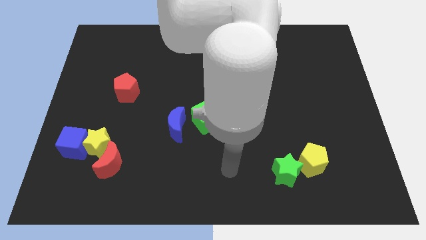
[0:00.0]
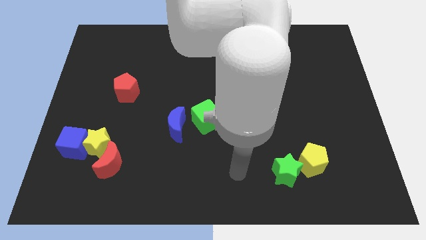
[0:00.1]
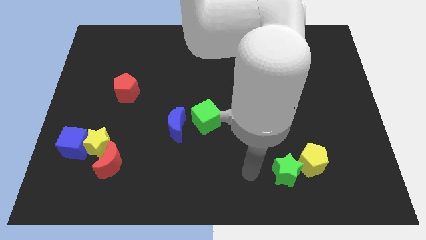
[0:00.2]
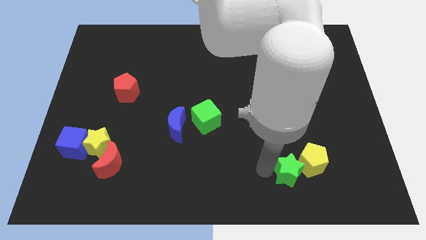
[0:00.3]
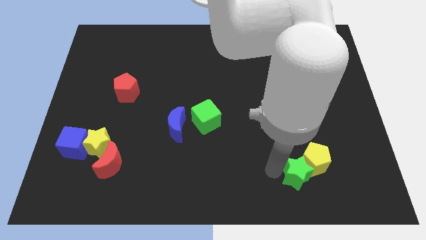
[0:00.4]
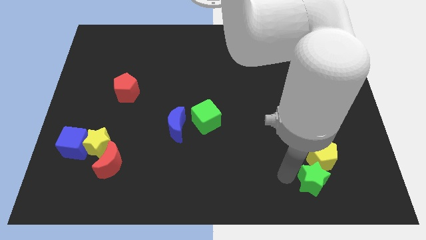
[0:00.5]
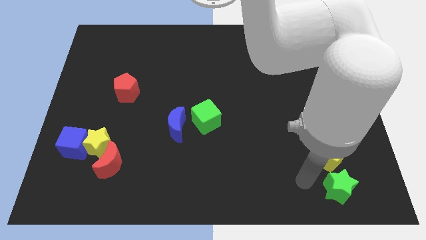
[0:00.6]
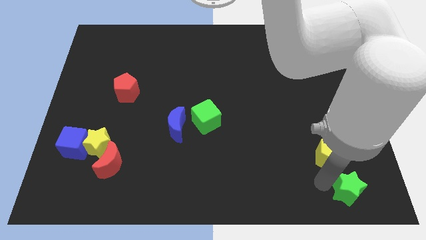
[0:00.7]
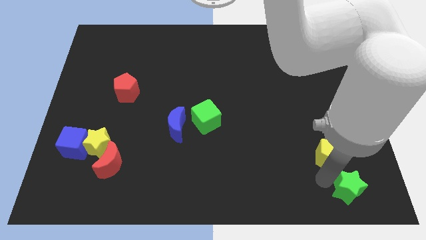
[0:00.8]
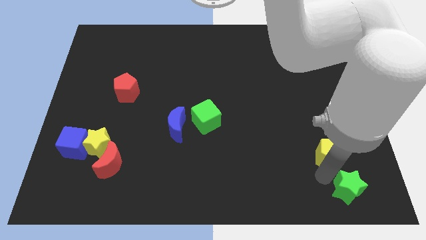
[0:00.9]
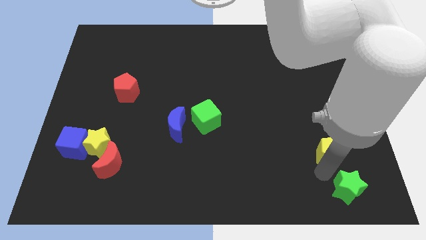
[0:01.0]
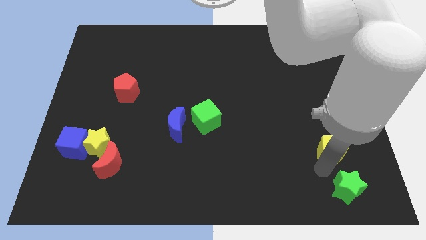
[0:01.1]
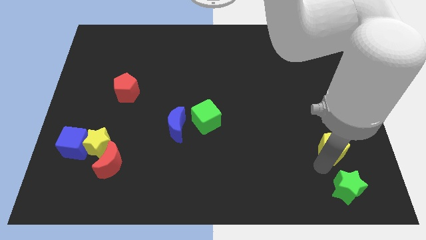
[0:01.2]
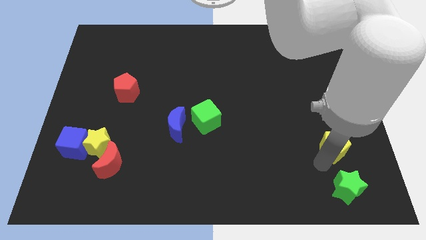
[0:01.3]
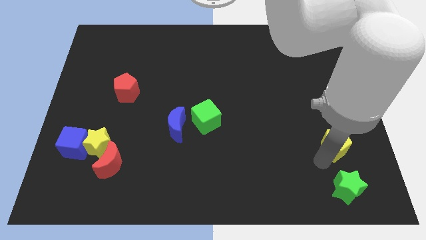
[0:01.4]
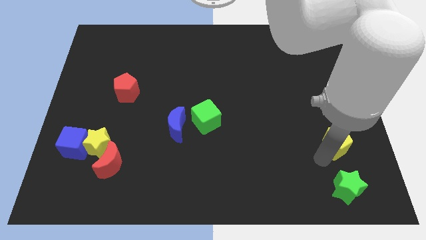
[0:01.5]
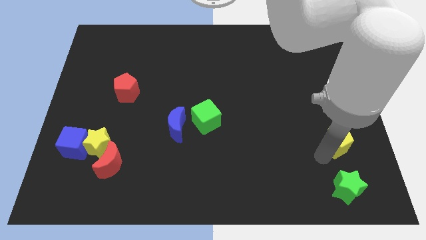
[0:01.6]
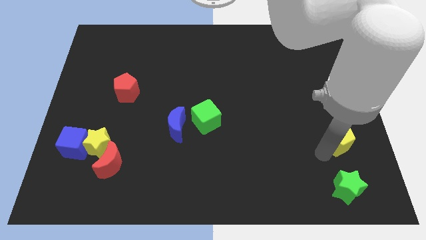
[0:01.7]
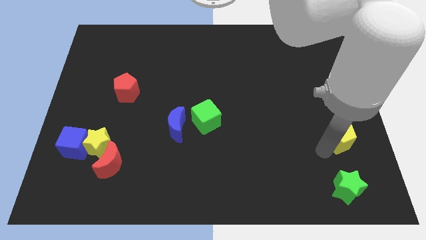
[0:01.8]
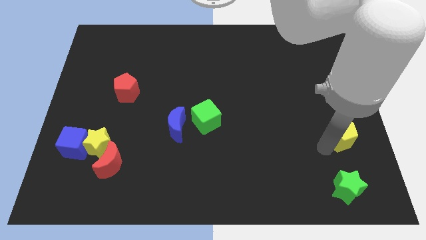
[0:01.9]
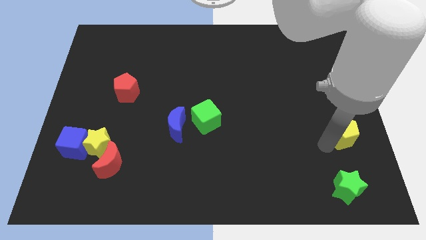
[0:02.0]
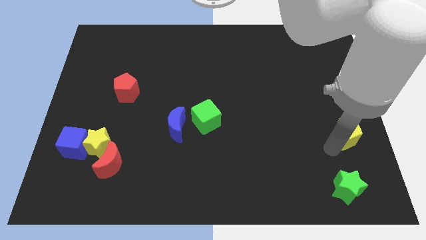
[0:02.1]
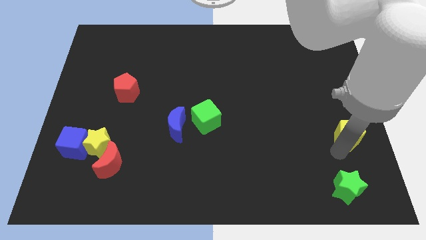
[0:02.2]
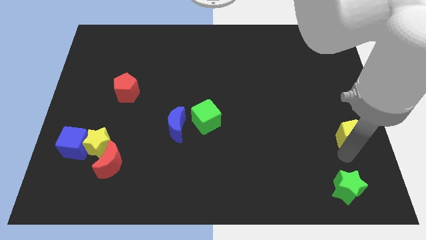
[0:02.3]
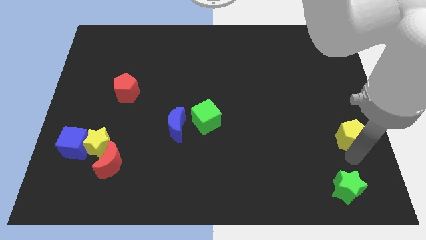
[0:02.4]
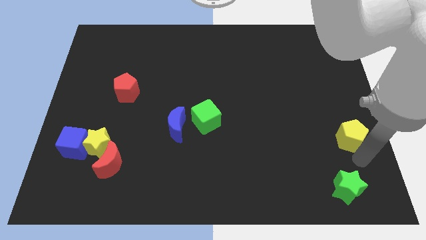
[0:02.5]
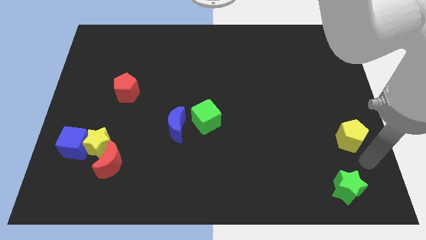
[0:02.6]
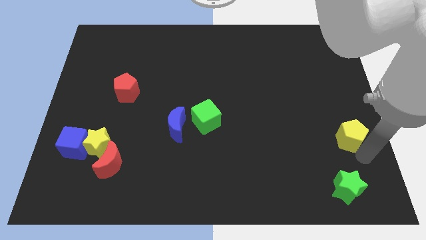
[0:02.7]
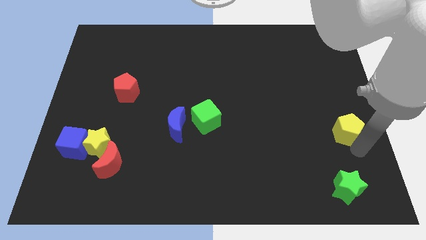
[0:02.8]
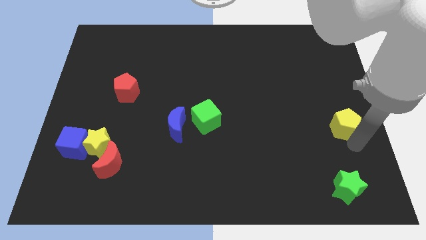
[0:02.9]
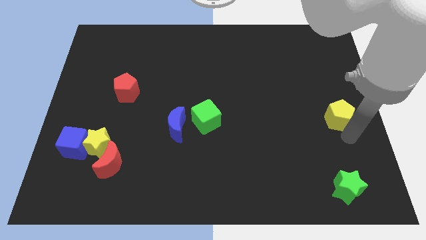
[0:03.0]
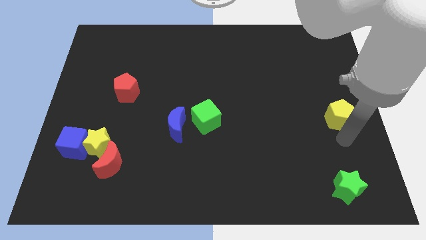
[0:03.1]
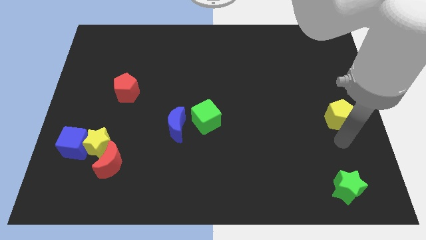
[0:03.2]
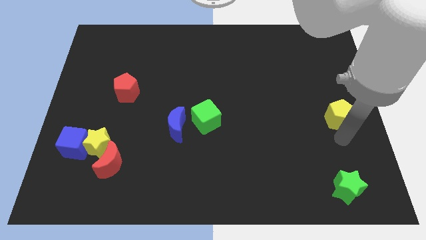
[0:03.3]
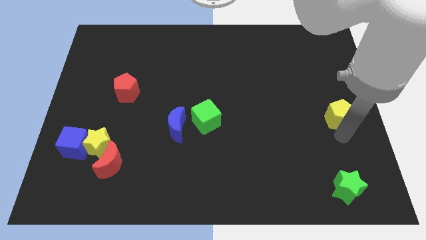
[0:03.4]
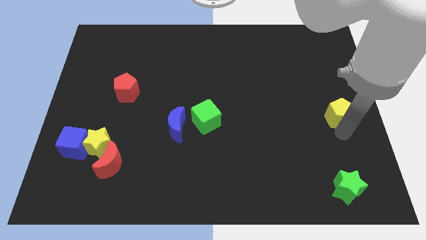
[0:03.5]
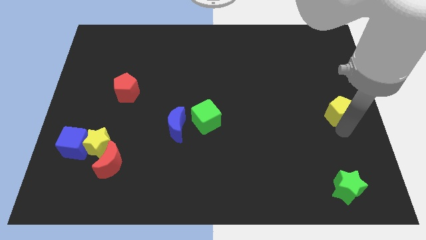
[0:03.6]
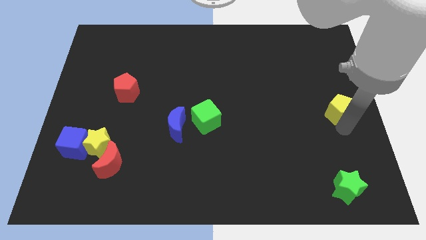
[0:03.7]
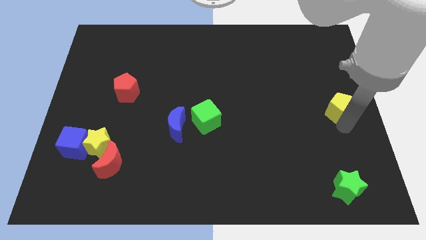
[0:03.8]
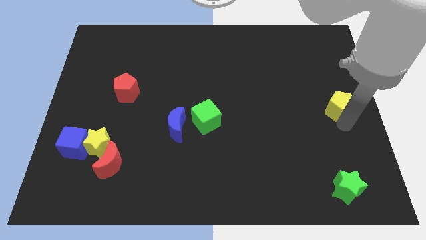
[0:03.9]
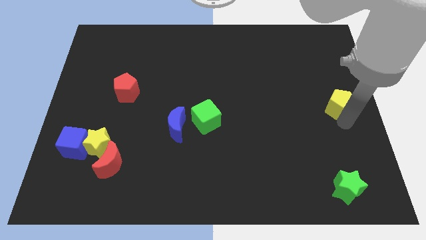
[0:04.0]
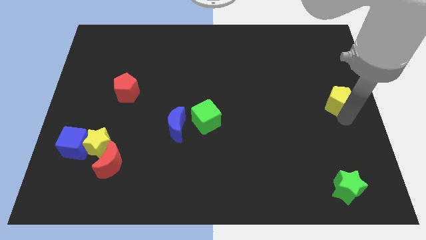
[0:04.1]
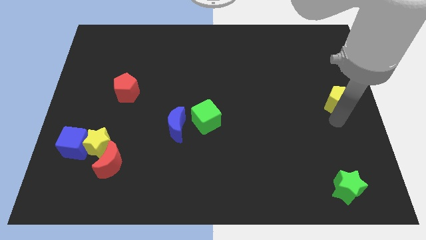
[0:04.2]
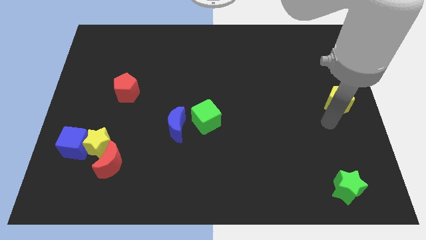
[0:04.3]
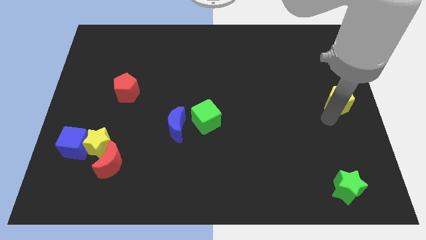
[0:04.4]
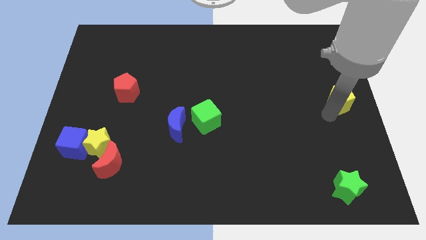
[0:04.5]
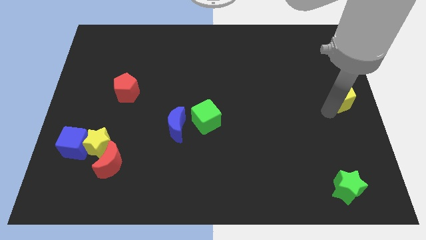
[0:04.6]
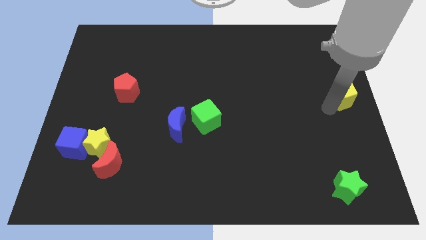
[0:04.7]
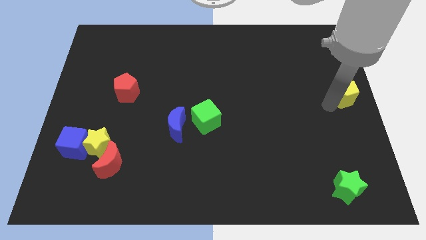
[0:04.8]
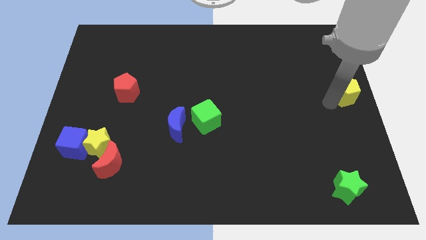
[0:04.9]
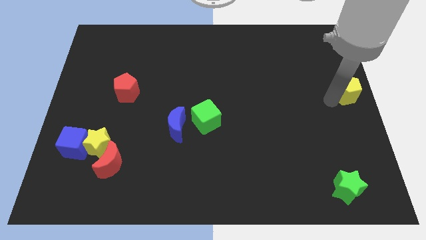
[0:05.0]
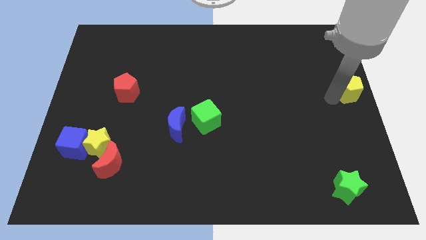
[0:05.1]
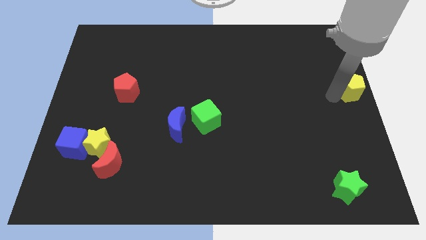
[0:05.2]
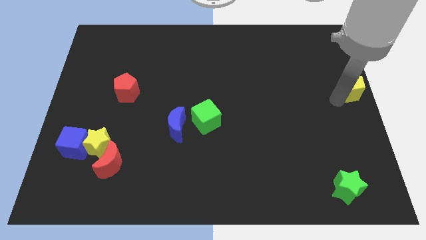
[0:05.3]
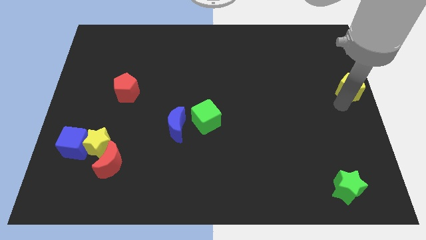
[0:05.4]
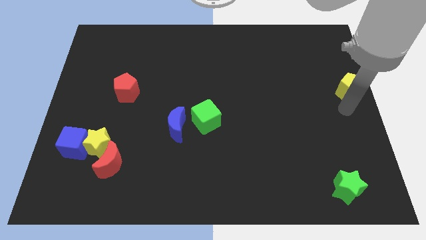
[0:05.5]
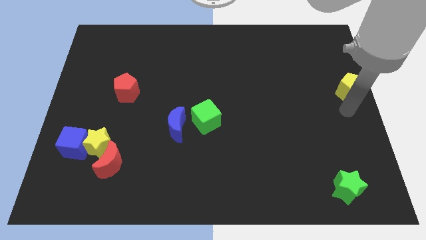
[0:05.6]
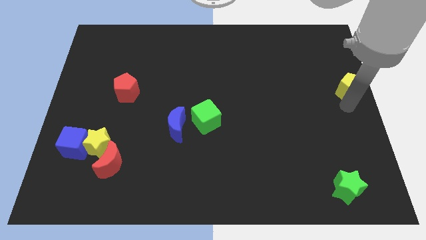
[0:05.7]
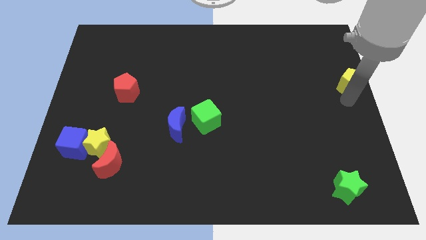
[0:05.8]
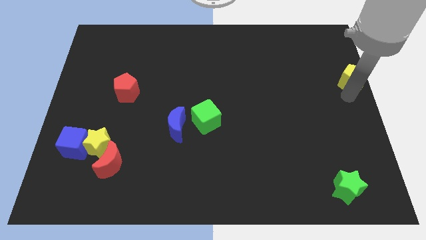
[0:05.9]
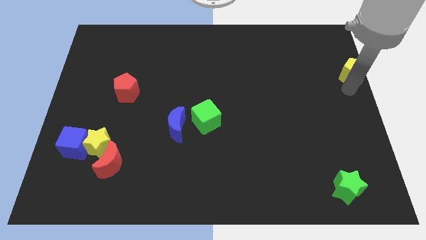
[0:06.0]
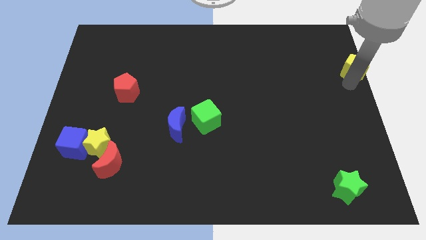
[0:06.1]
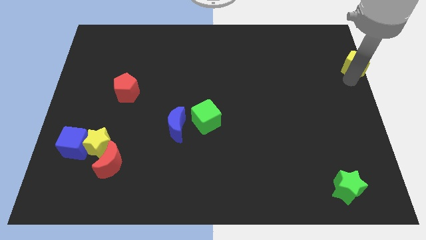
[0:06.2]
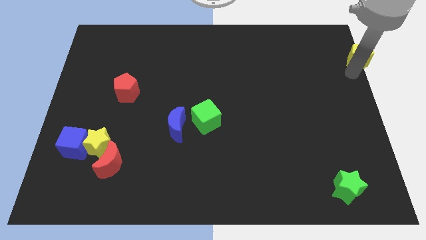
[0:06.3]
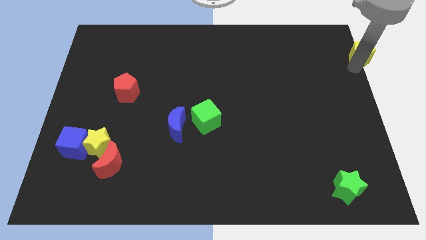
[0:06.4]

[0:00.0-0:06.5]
slide the yellow pentagon to the top right of the board

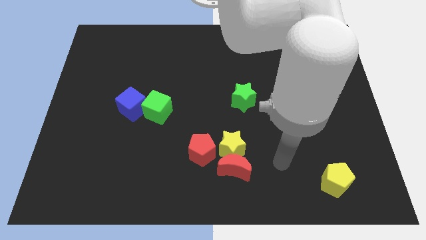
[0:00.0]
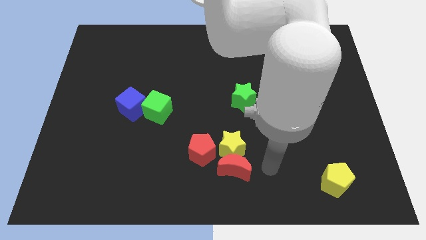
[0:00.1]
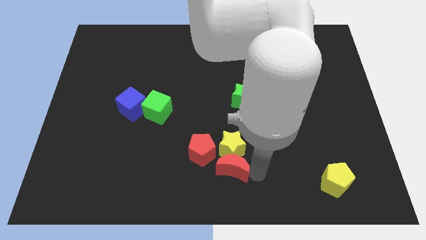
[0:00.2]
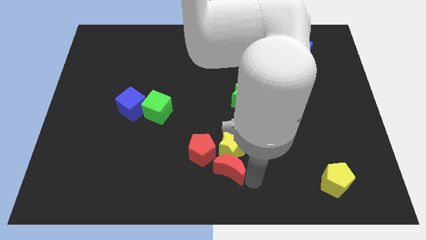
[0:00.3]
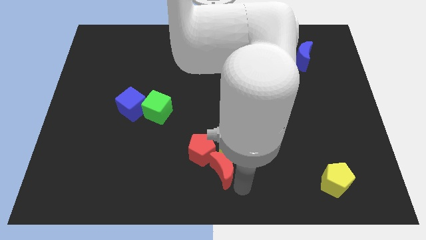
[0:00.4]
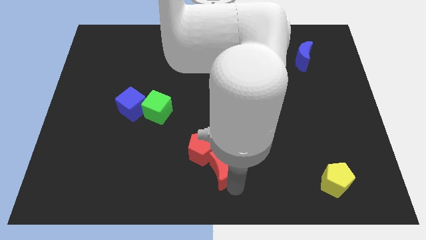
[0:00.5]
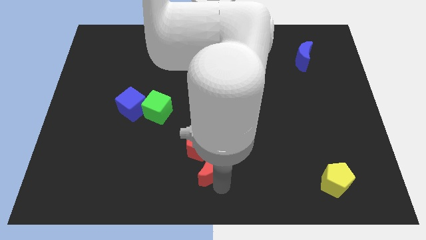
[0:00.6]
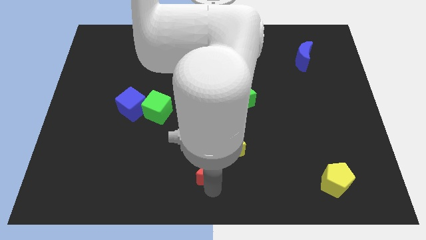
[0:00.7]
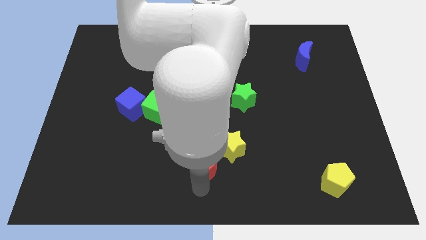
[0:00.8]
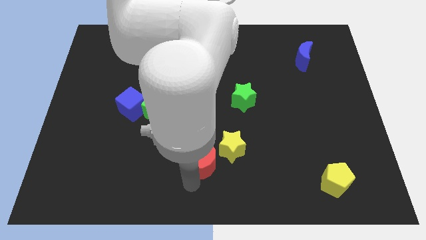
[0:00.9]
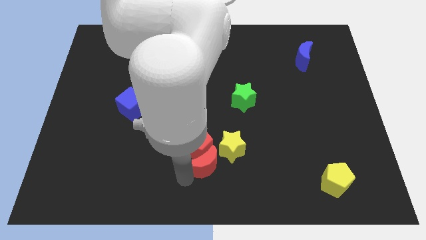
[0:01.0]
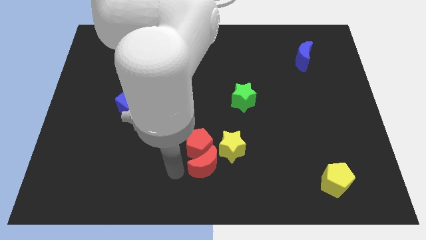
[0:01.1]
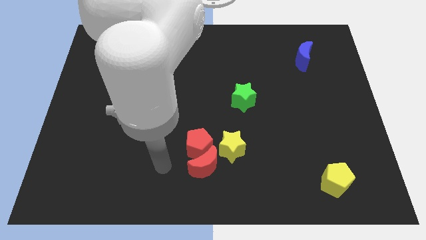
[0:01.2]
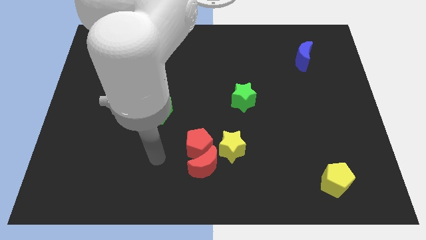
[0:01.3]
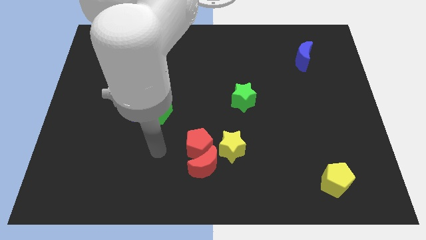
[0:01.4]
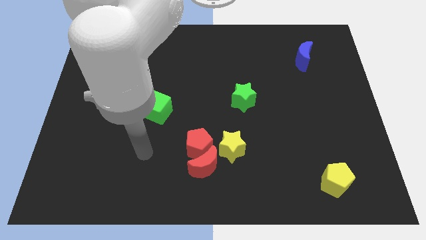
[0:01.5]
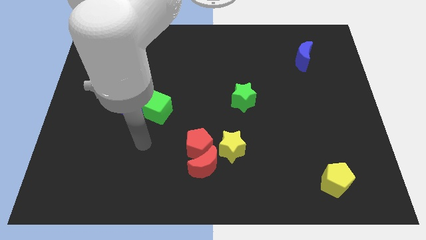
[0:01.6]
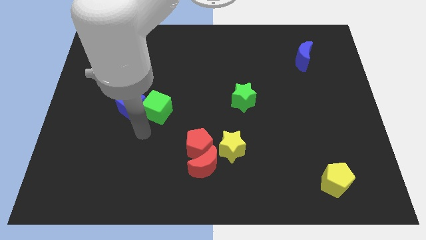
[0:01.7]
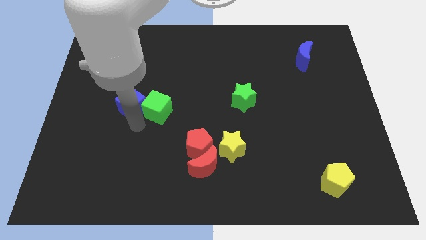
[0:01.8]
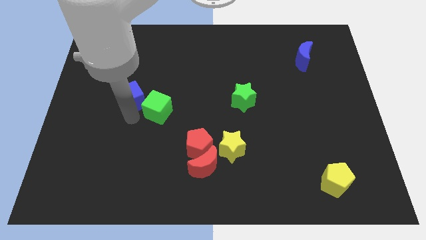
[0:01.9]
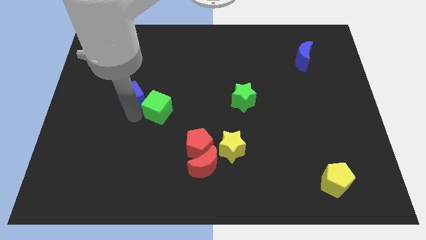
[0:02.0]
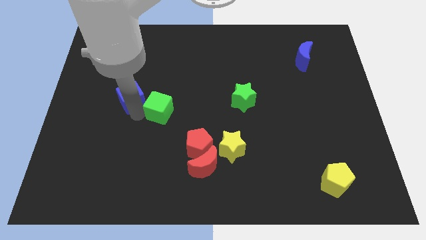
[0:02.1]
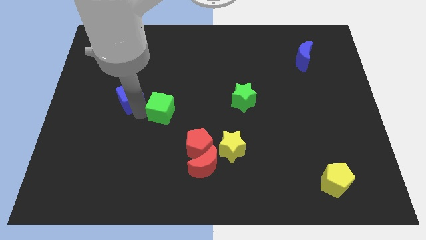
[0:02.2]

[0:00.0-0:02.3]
move the green cube to the middle of the board
